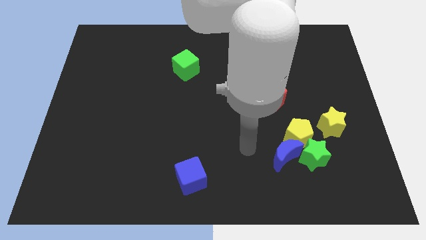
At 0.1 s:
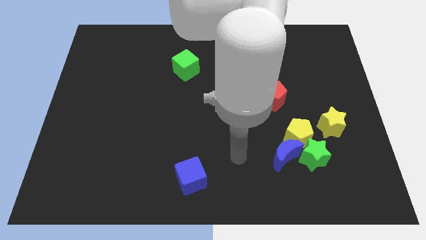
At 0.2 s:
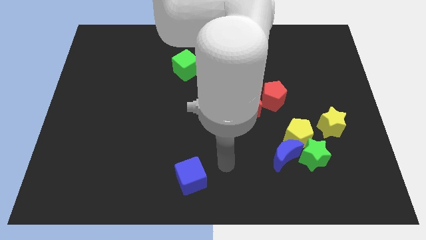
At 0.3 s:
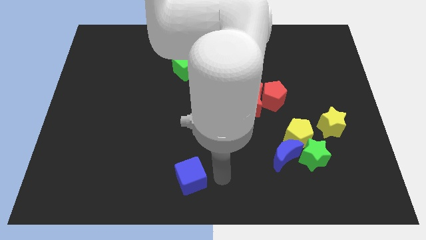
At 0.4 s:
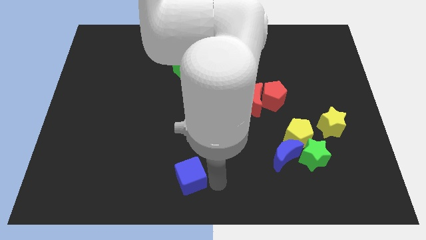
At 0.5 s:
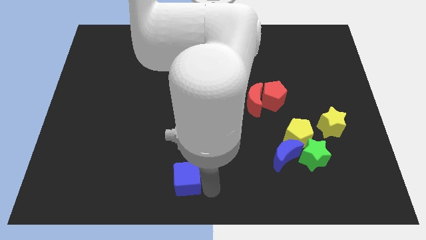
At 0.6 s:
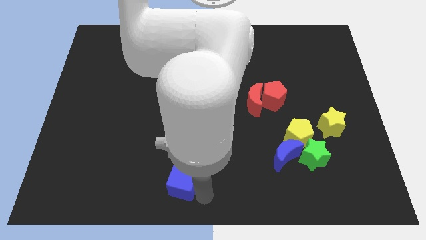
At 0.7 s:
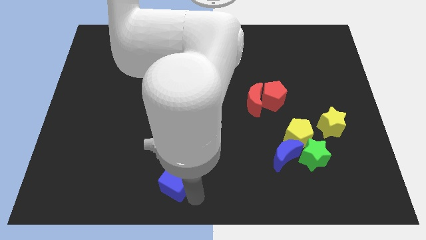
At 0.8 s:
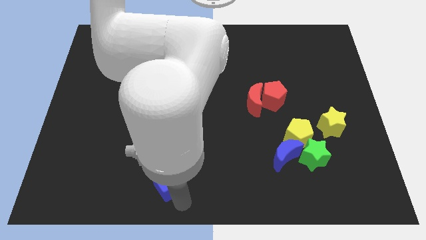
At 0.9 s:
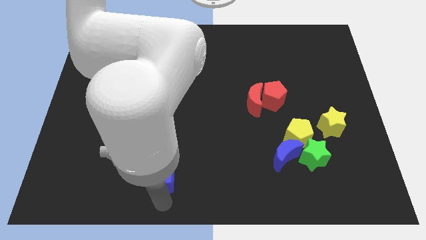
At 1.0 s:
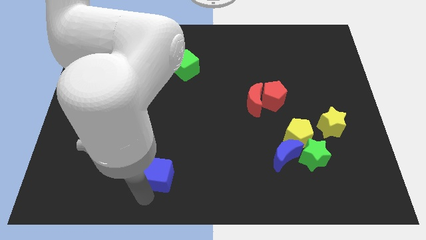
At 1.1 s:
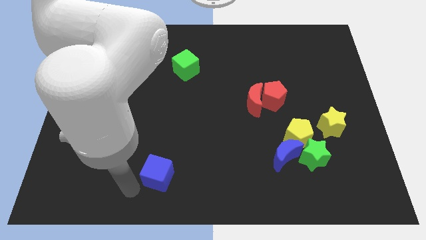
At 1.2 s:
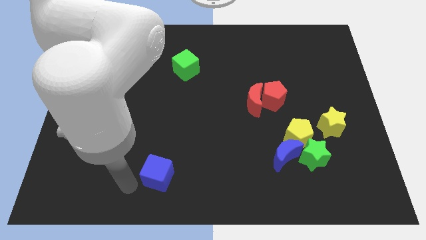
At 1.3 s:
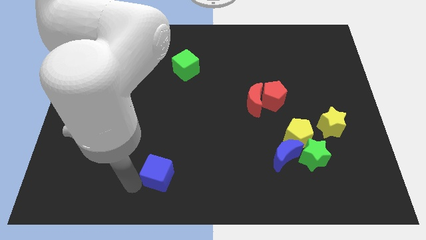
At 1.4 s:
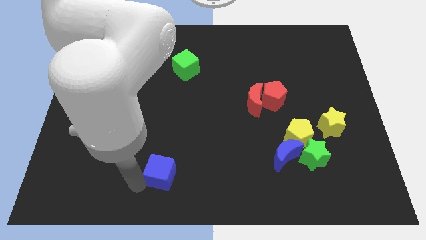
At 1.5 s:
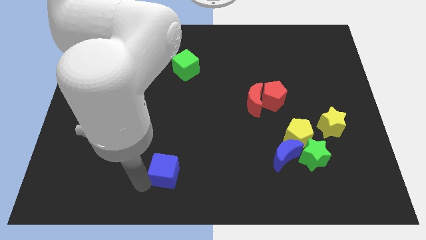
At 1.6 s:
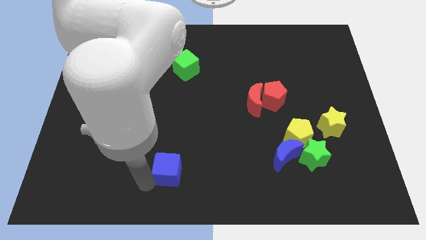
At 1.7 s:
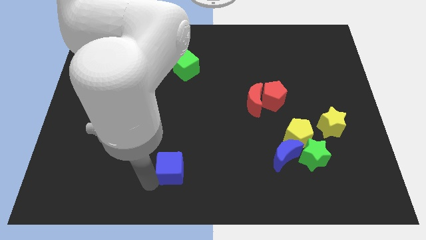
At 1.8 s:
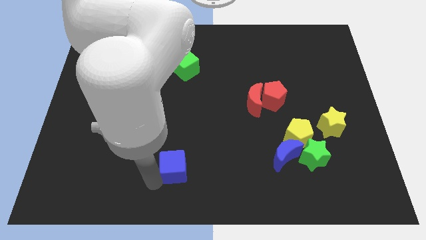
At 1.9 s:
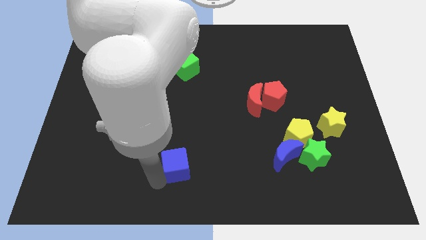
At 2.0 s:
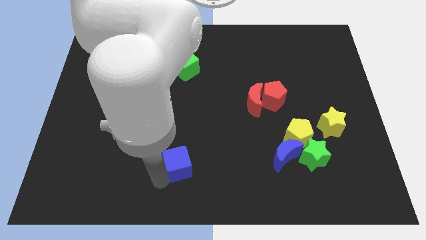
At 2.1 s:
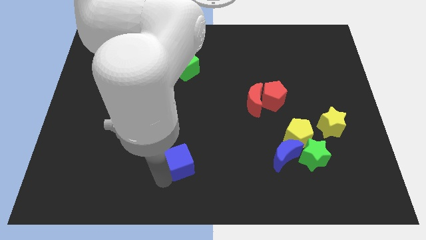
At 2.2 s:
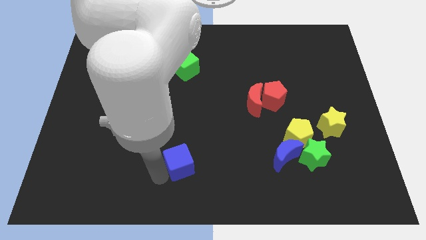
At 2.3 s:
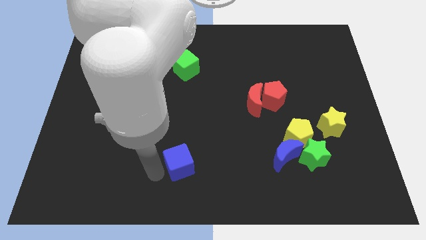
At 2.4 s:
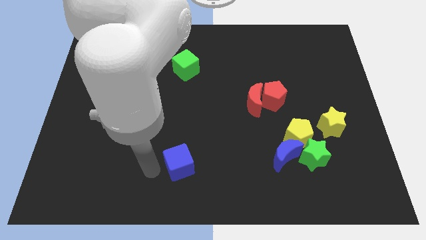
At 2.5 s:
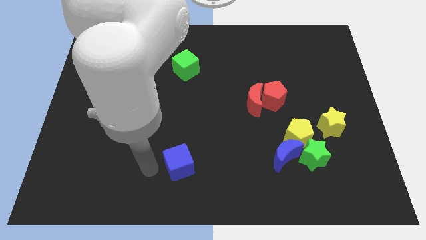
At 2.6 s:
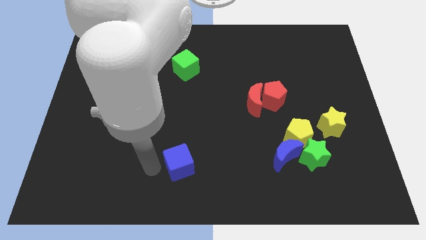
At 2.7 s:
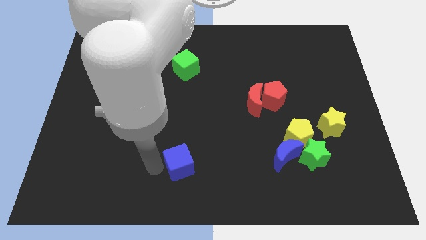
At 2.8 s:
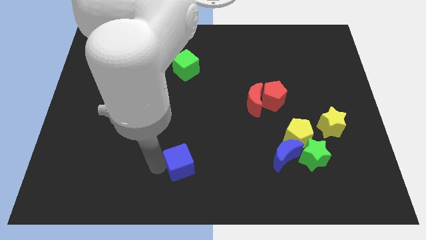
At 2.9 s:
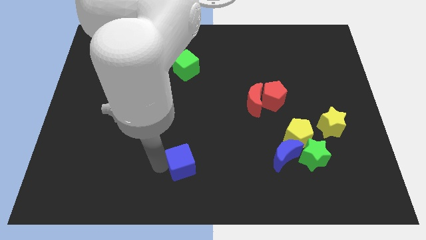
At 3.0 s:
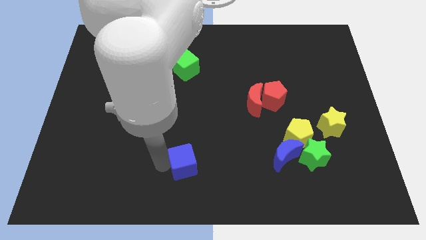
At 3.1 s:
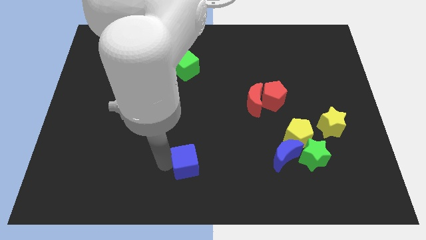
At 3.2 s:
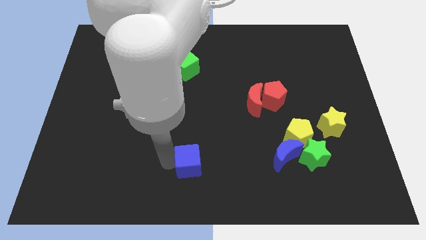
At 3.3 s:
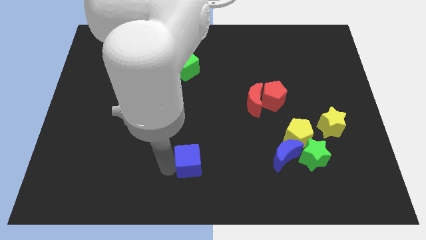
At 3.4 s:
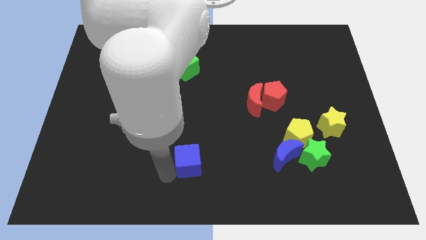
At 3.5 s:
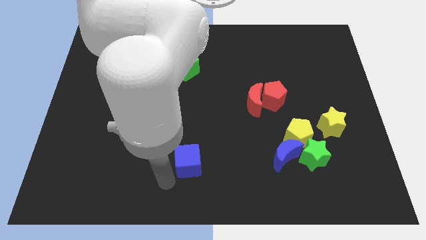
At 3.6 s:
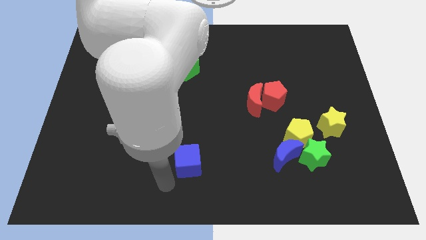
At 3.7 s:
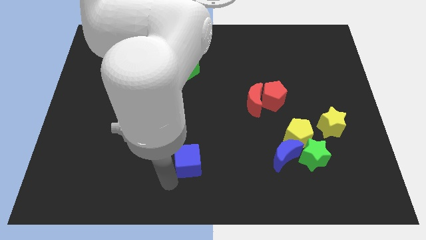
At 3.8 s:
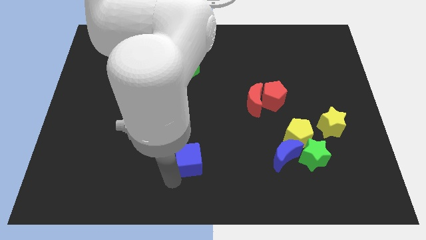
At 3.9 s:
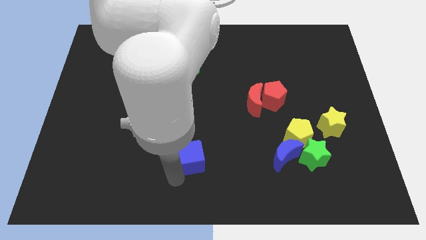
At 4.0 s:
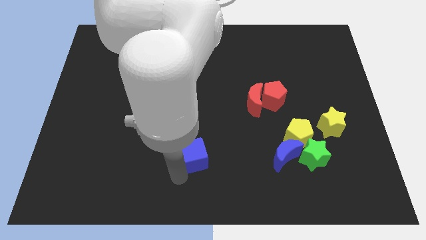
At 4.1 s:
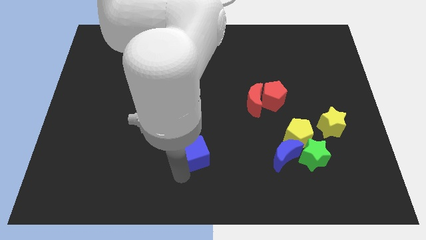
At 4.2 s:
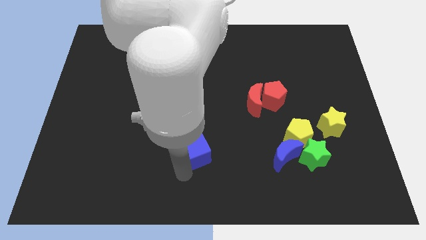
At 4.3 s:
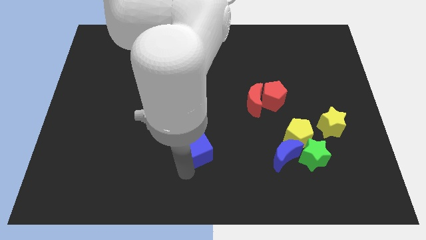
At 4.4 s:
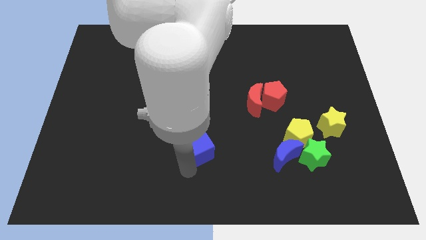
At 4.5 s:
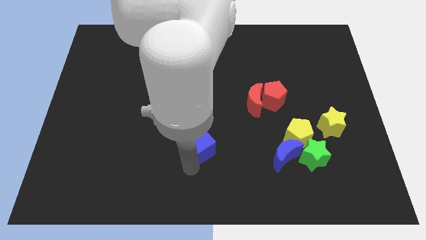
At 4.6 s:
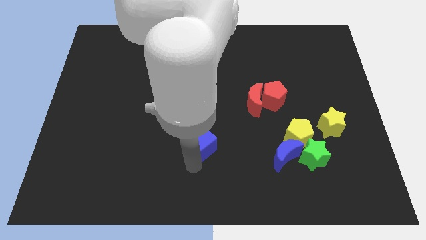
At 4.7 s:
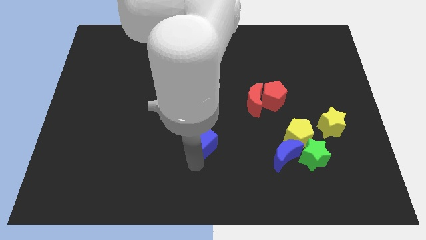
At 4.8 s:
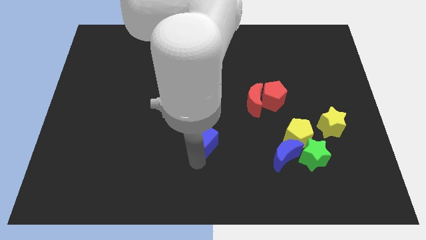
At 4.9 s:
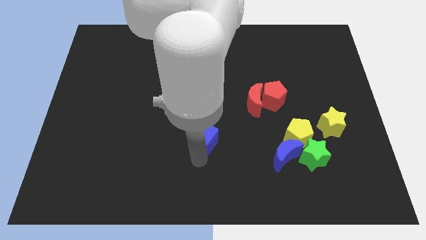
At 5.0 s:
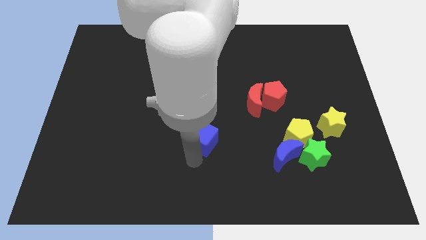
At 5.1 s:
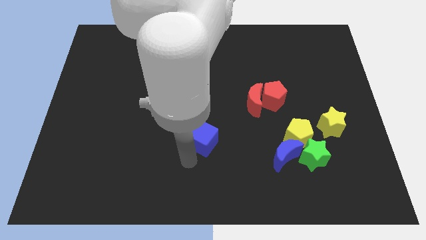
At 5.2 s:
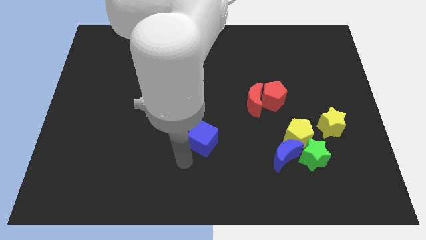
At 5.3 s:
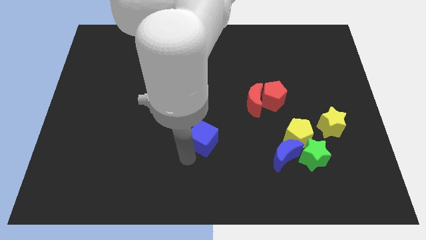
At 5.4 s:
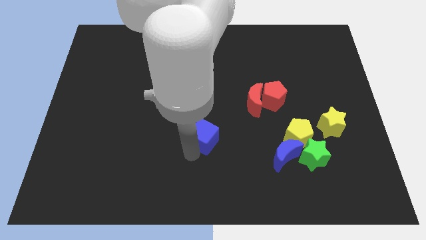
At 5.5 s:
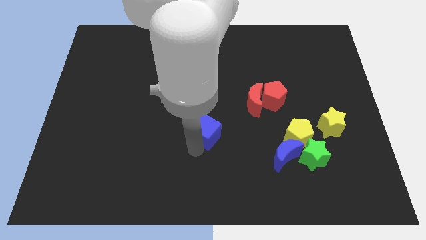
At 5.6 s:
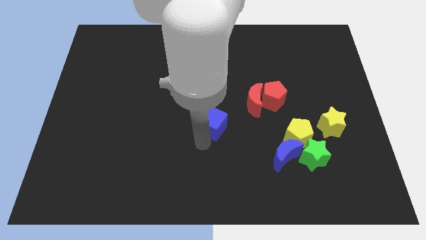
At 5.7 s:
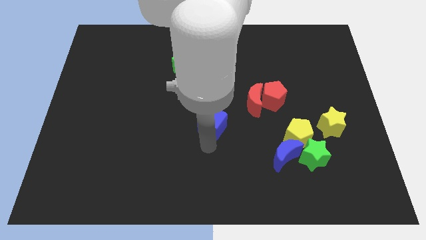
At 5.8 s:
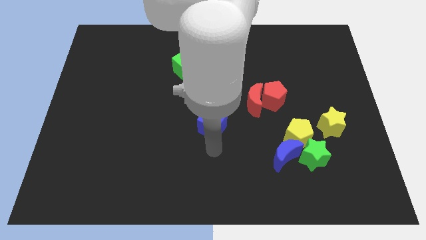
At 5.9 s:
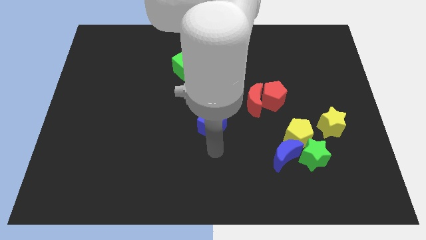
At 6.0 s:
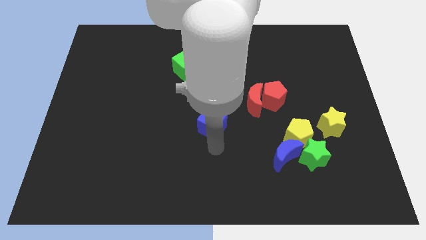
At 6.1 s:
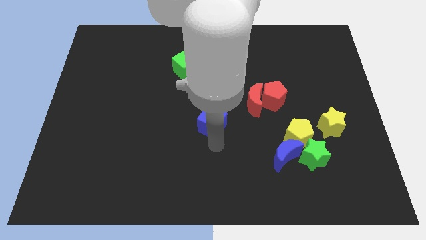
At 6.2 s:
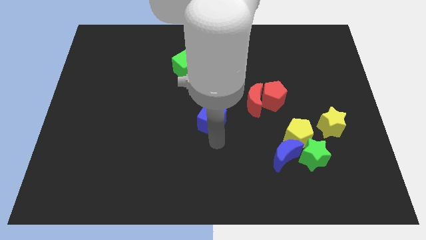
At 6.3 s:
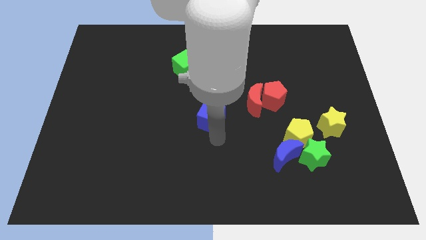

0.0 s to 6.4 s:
put the blue cube to the left side of the red moon
